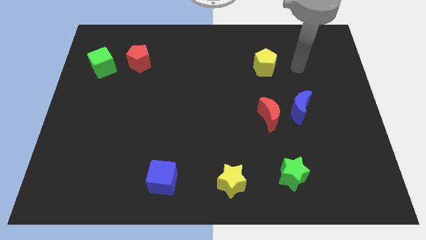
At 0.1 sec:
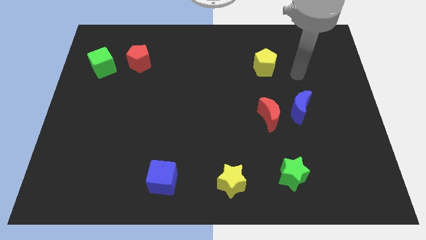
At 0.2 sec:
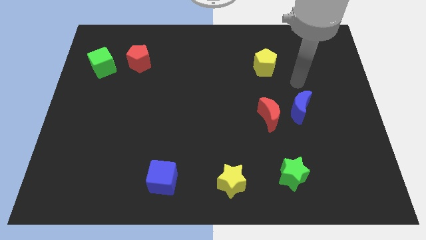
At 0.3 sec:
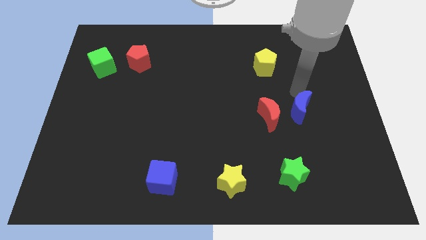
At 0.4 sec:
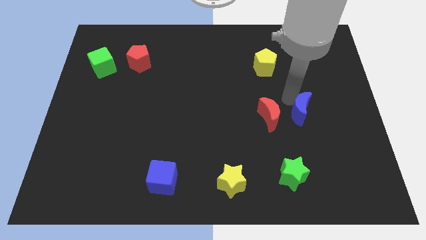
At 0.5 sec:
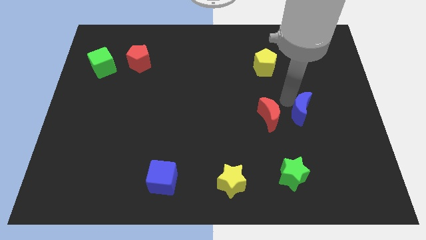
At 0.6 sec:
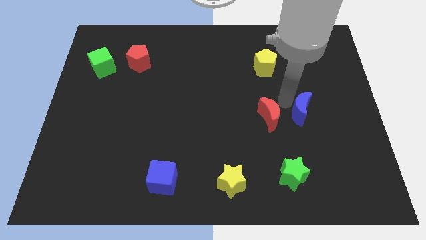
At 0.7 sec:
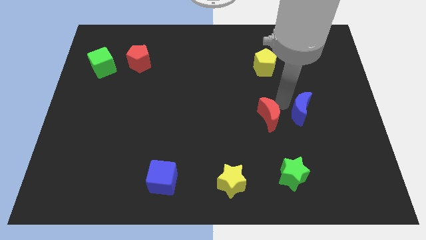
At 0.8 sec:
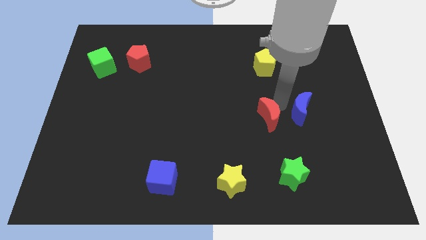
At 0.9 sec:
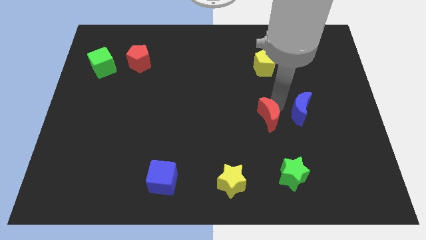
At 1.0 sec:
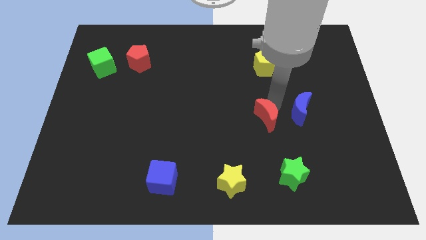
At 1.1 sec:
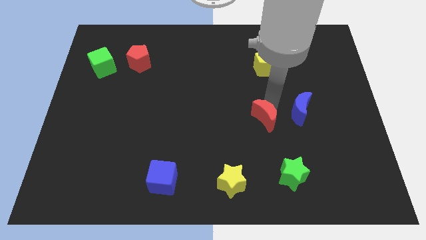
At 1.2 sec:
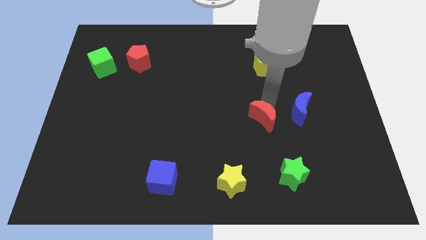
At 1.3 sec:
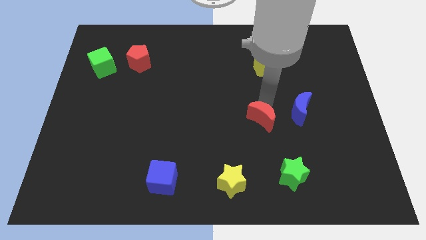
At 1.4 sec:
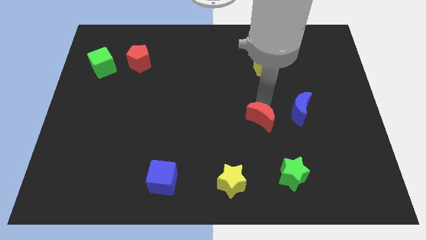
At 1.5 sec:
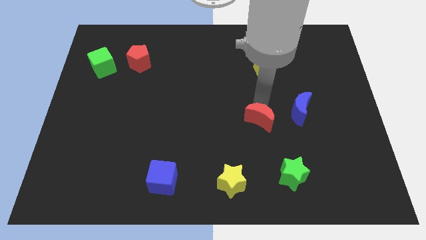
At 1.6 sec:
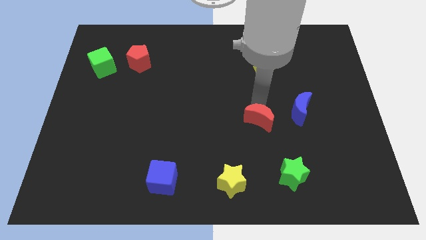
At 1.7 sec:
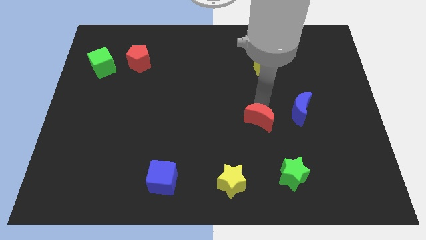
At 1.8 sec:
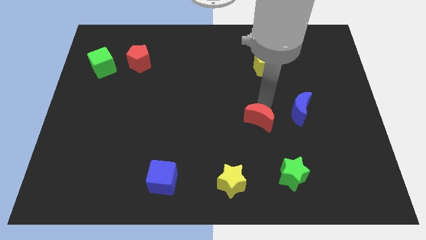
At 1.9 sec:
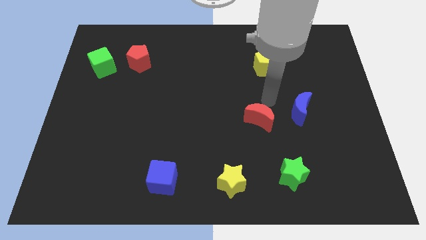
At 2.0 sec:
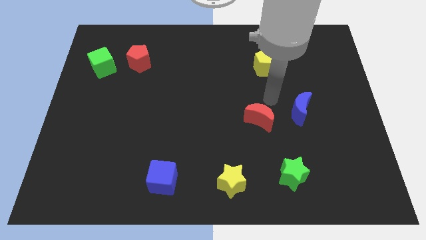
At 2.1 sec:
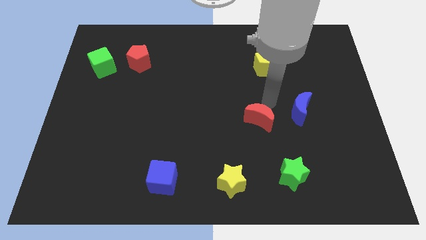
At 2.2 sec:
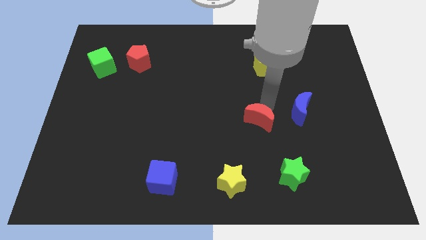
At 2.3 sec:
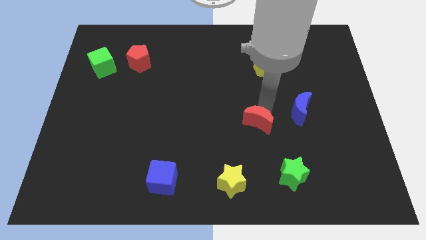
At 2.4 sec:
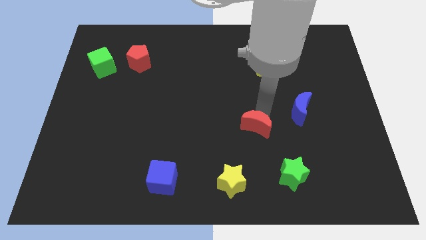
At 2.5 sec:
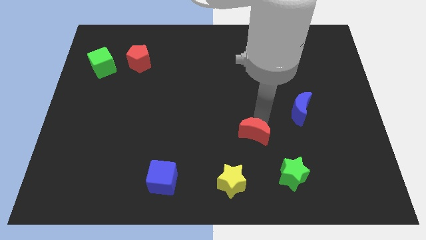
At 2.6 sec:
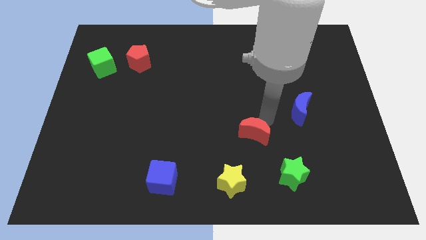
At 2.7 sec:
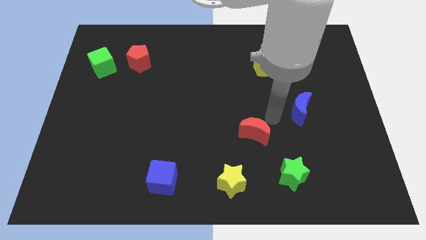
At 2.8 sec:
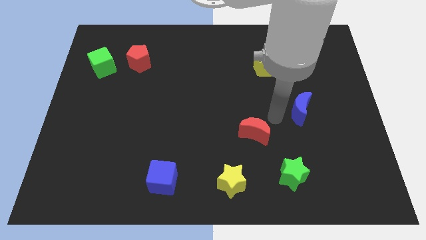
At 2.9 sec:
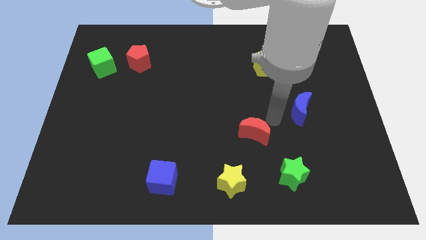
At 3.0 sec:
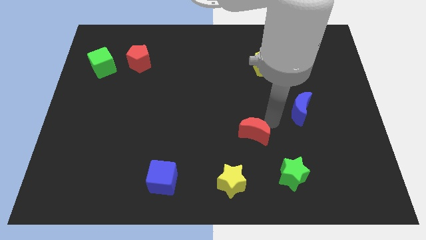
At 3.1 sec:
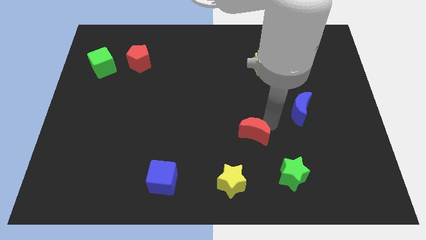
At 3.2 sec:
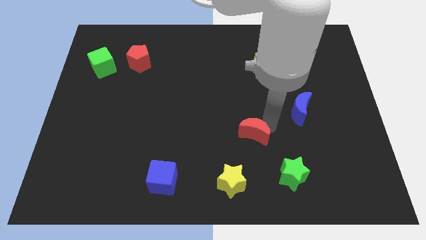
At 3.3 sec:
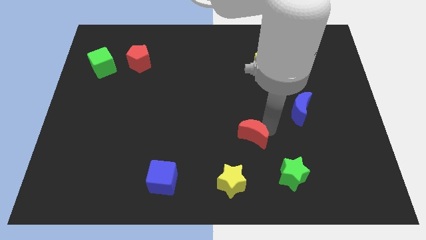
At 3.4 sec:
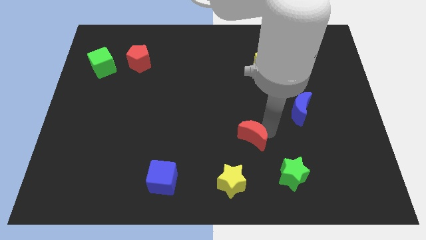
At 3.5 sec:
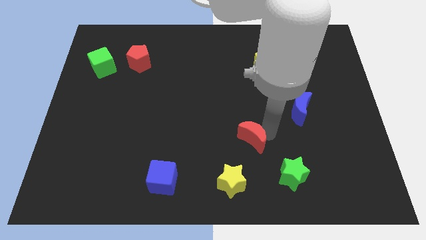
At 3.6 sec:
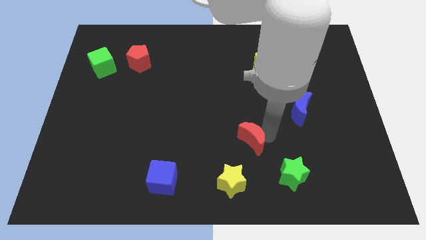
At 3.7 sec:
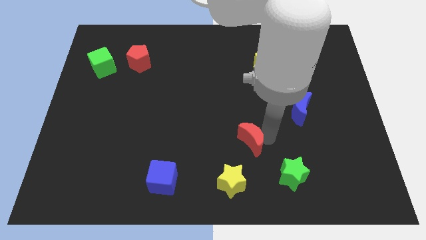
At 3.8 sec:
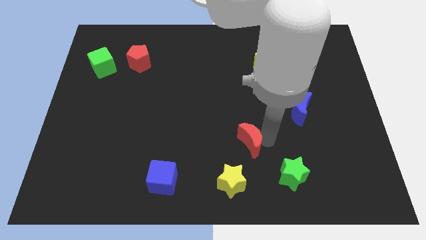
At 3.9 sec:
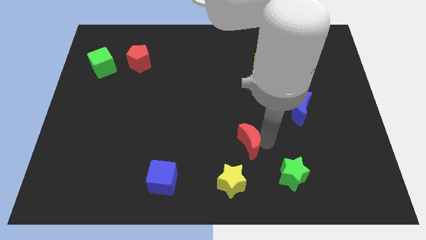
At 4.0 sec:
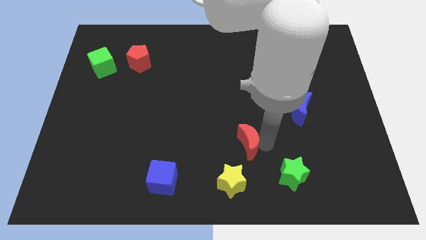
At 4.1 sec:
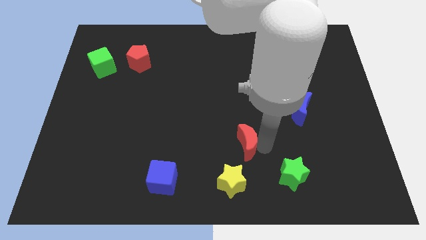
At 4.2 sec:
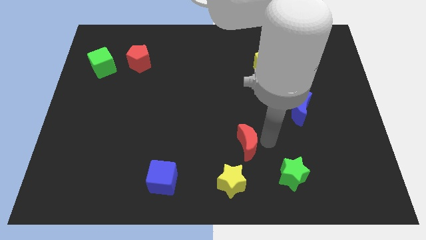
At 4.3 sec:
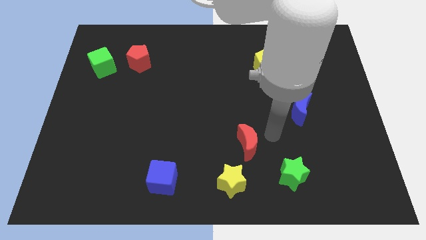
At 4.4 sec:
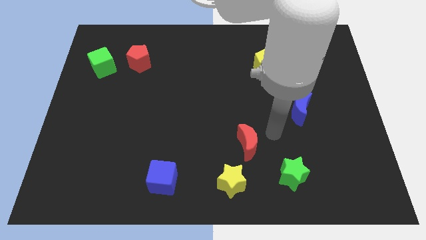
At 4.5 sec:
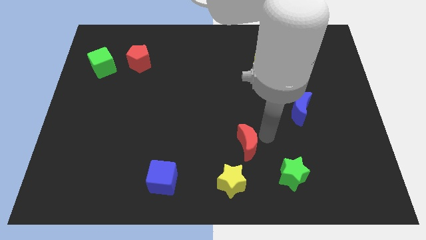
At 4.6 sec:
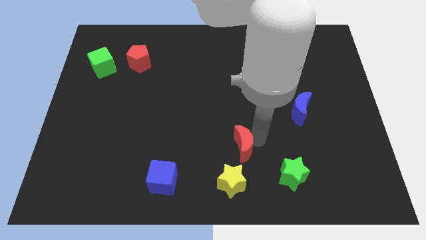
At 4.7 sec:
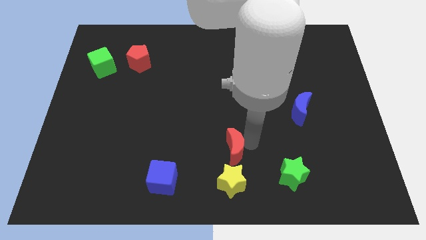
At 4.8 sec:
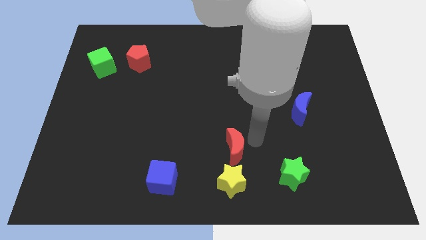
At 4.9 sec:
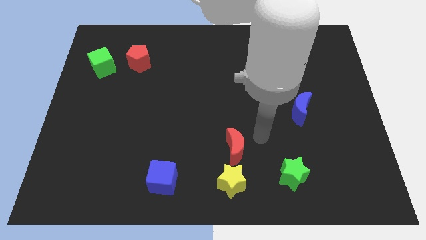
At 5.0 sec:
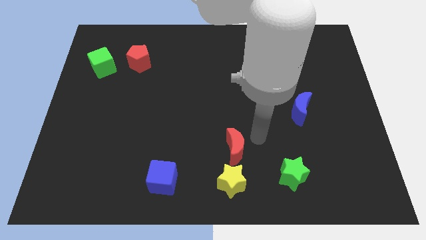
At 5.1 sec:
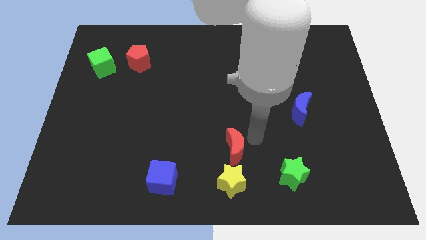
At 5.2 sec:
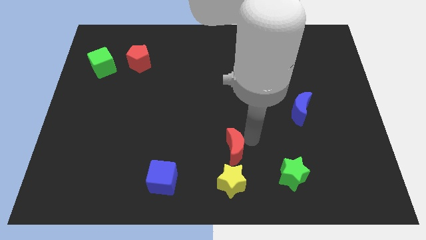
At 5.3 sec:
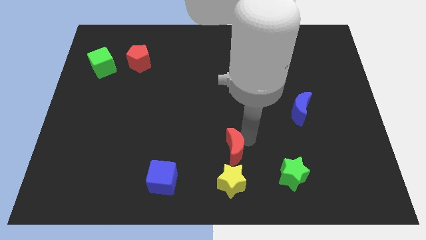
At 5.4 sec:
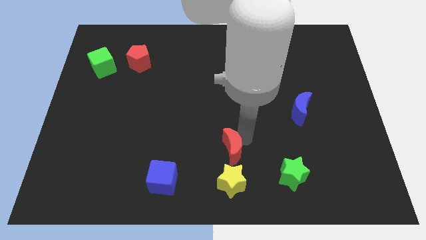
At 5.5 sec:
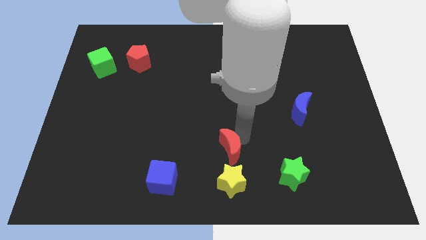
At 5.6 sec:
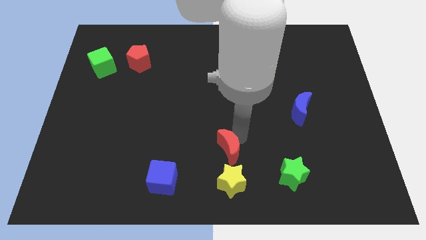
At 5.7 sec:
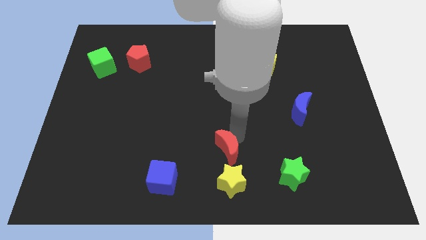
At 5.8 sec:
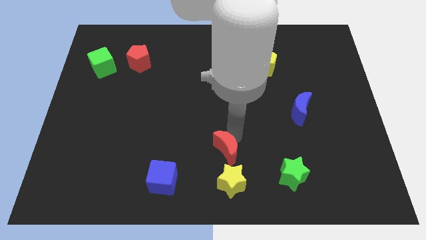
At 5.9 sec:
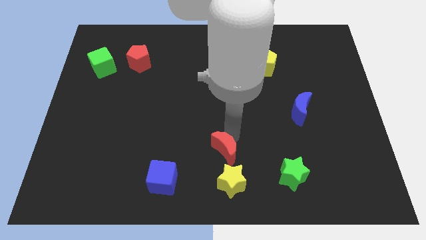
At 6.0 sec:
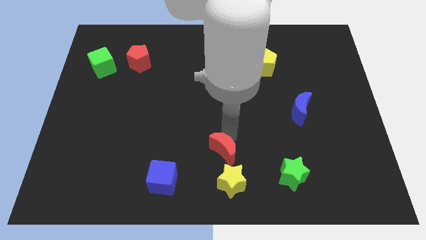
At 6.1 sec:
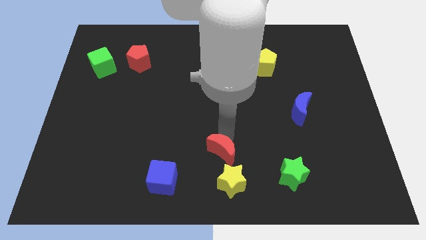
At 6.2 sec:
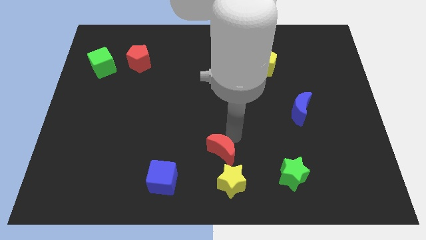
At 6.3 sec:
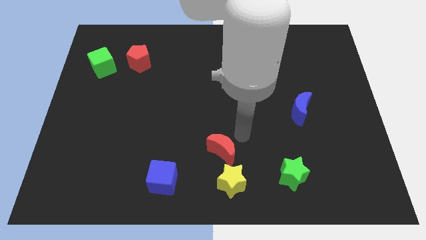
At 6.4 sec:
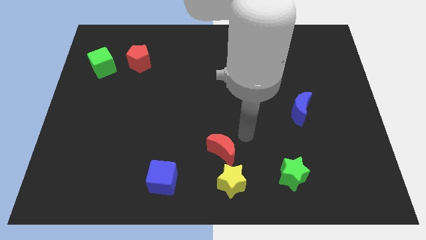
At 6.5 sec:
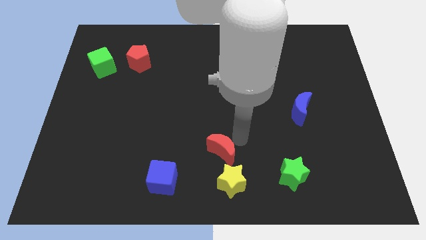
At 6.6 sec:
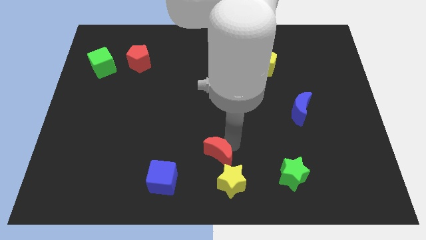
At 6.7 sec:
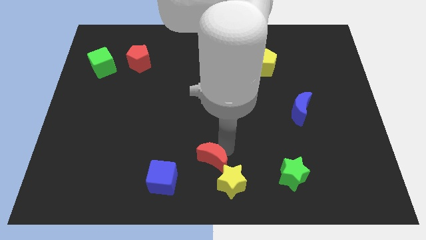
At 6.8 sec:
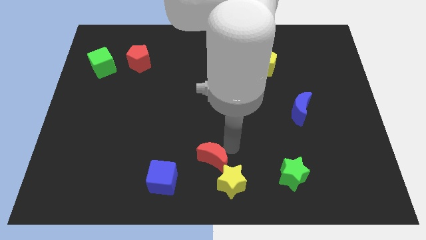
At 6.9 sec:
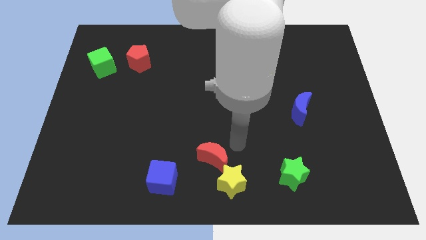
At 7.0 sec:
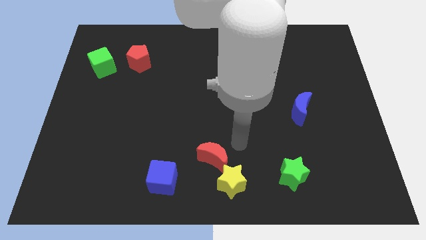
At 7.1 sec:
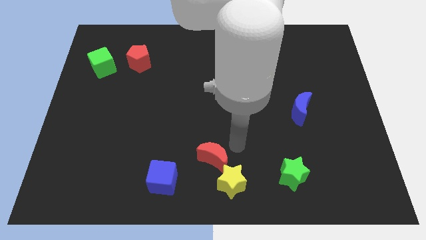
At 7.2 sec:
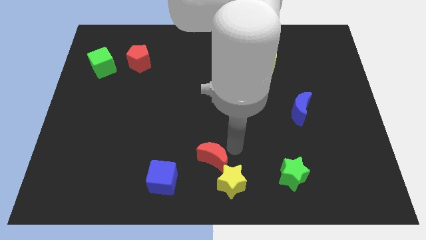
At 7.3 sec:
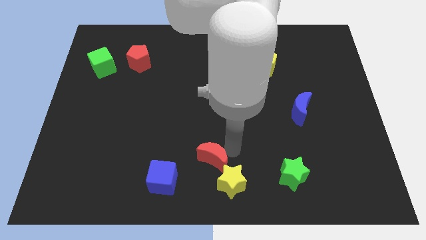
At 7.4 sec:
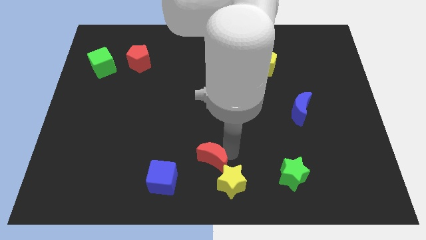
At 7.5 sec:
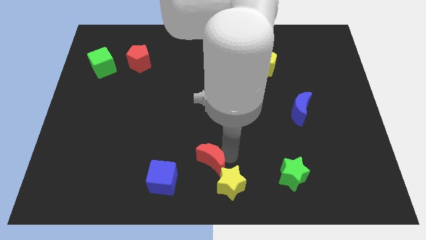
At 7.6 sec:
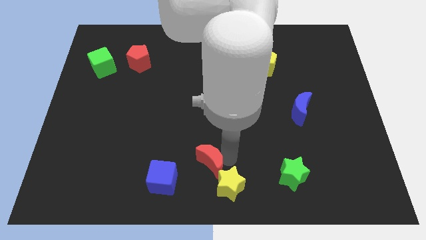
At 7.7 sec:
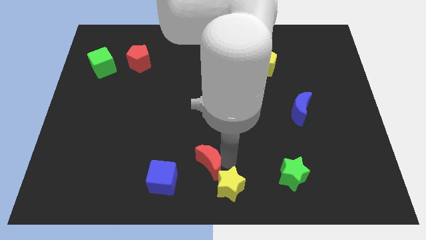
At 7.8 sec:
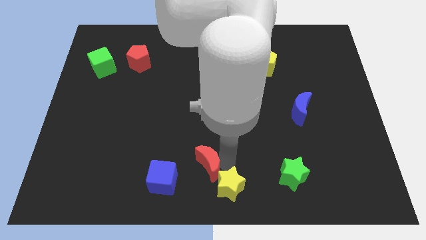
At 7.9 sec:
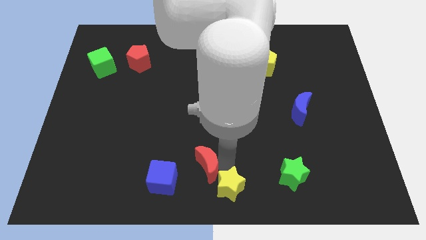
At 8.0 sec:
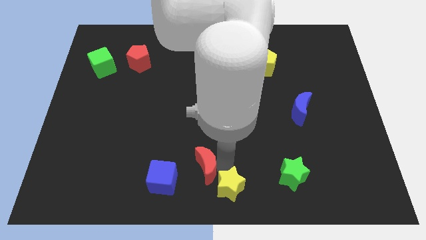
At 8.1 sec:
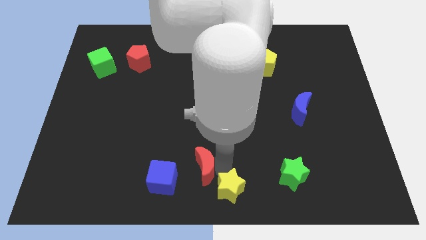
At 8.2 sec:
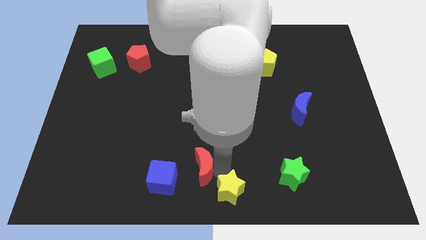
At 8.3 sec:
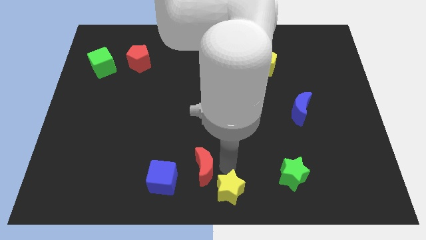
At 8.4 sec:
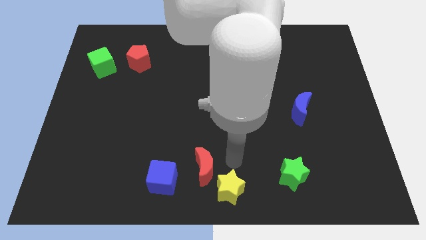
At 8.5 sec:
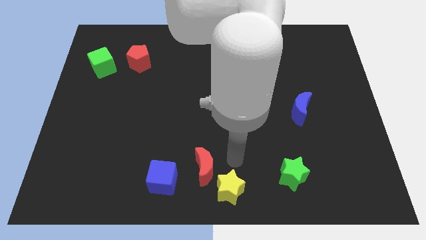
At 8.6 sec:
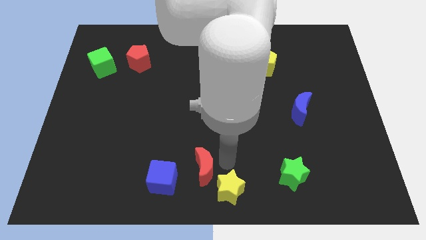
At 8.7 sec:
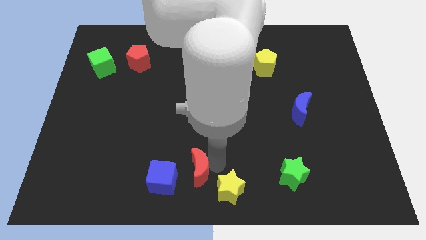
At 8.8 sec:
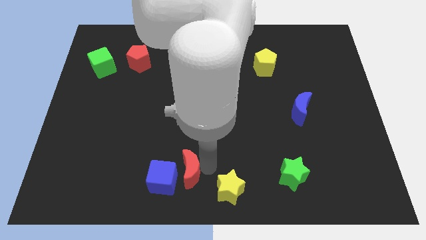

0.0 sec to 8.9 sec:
push the red moon close to the blue cube
